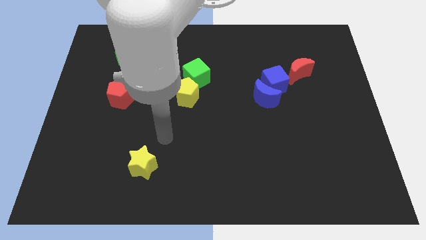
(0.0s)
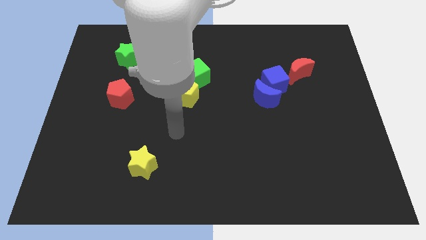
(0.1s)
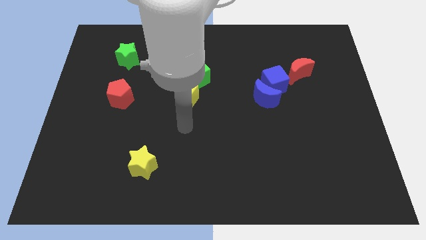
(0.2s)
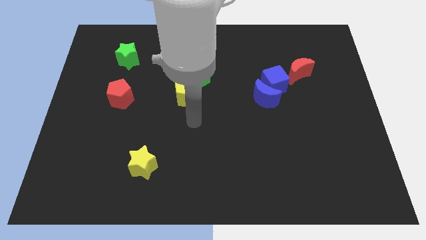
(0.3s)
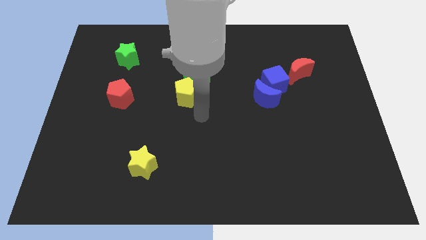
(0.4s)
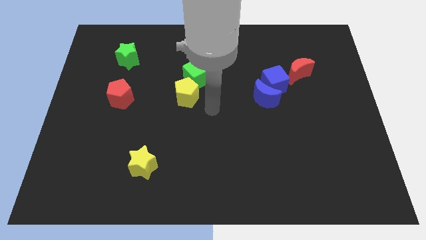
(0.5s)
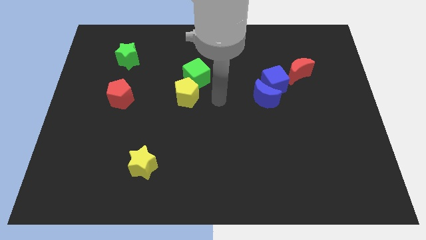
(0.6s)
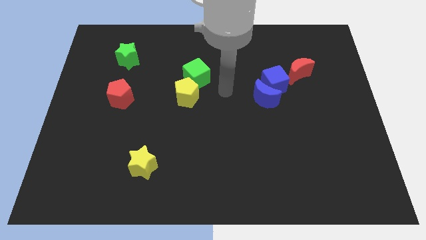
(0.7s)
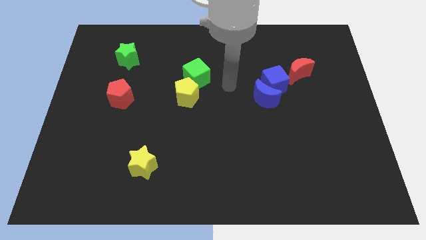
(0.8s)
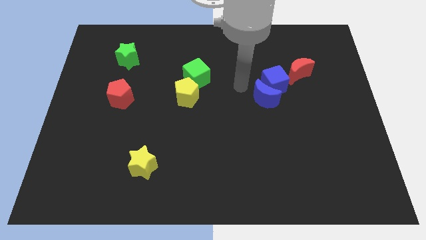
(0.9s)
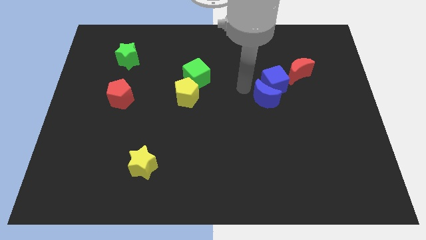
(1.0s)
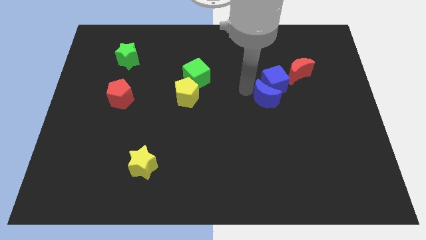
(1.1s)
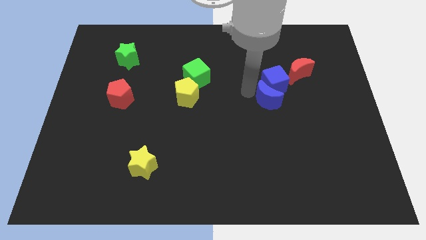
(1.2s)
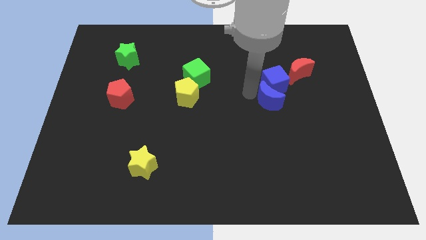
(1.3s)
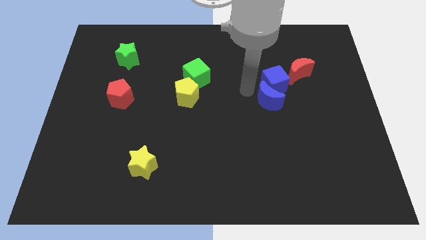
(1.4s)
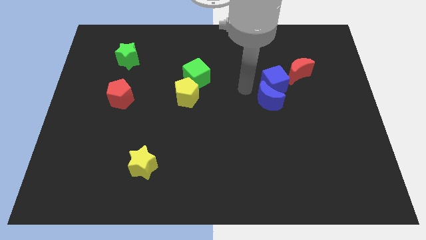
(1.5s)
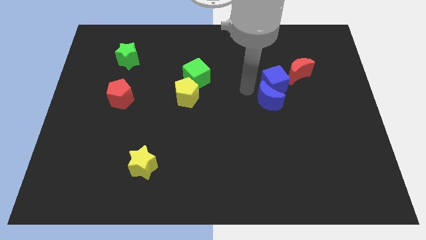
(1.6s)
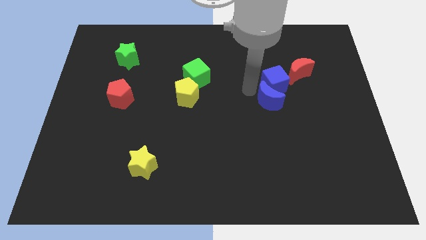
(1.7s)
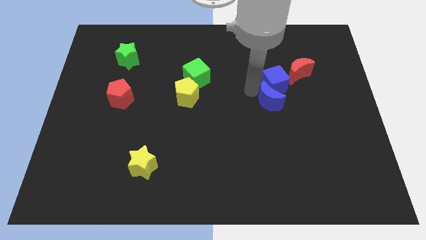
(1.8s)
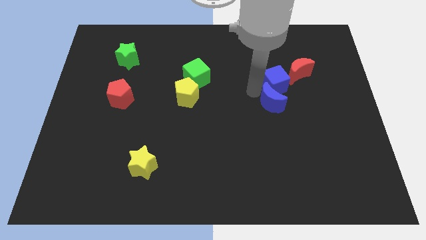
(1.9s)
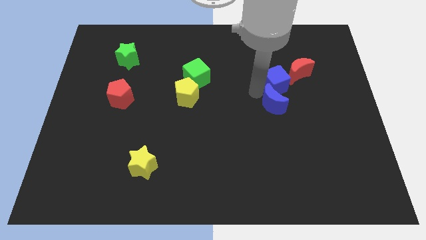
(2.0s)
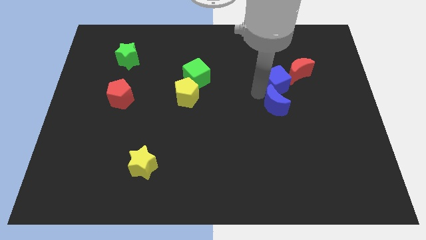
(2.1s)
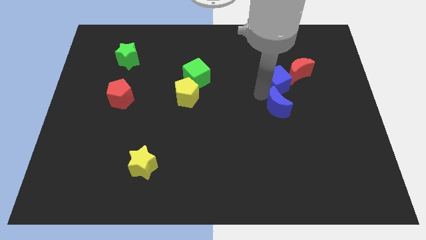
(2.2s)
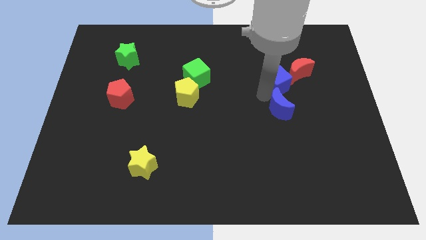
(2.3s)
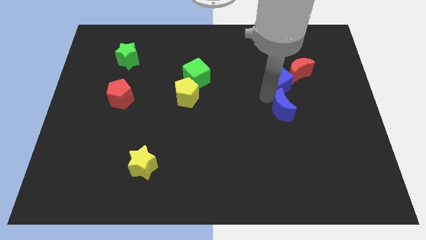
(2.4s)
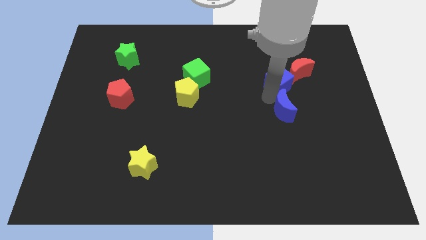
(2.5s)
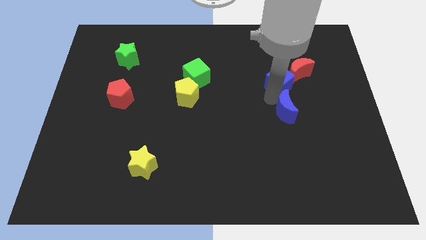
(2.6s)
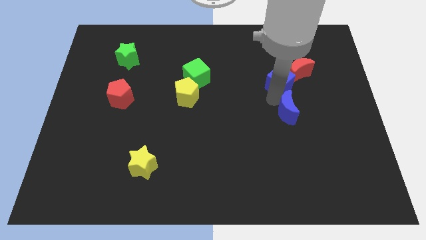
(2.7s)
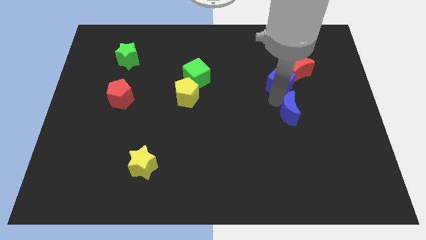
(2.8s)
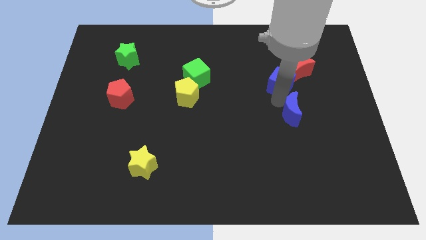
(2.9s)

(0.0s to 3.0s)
slightly move the blue moon downwards and then to the right

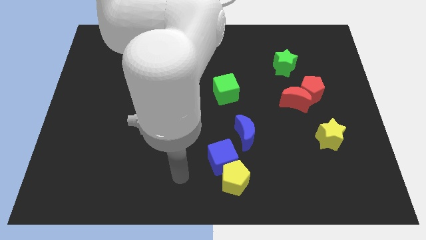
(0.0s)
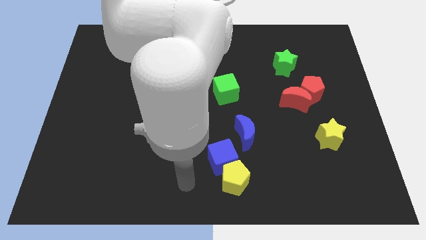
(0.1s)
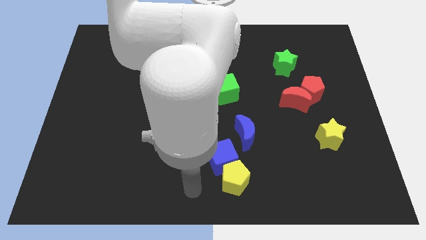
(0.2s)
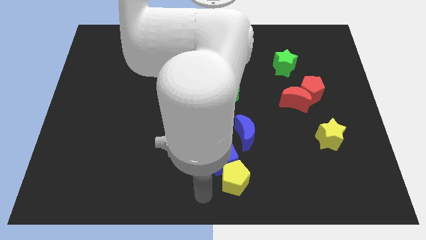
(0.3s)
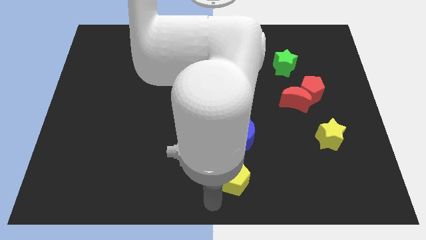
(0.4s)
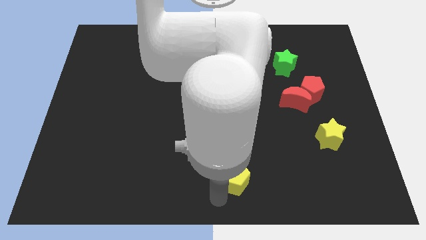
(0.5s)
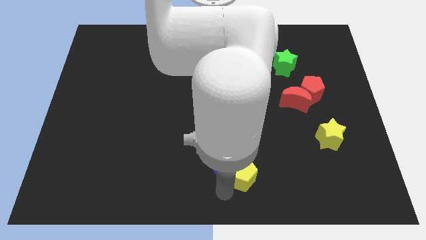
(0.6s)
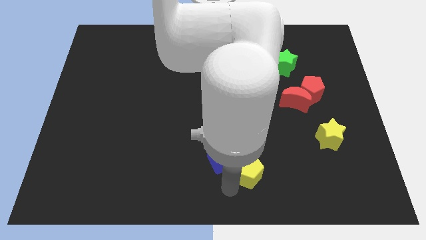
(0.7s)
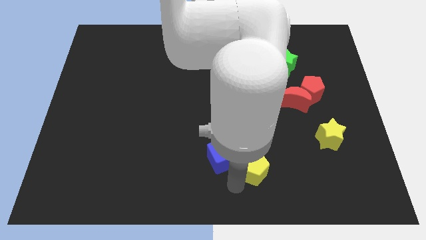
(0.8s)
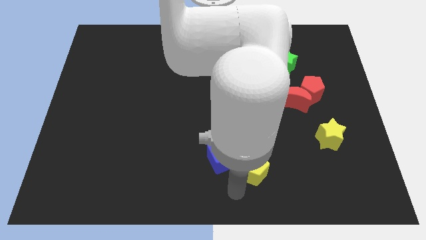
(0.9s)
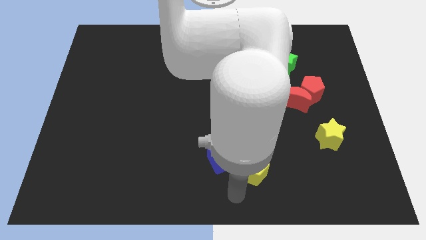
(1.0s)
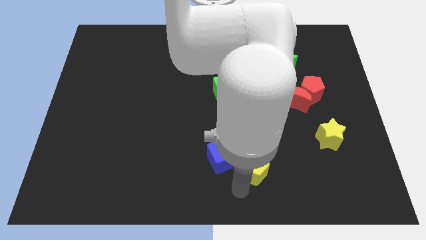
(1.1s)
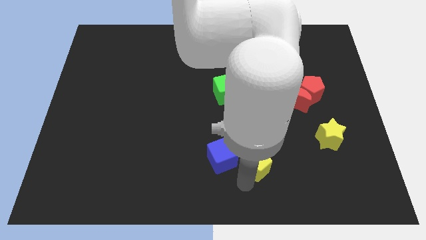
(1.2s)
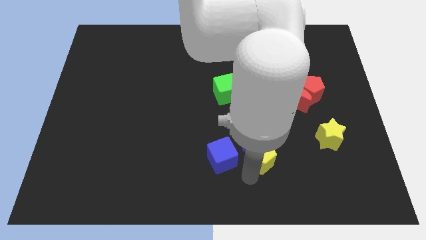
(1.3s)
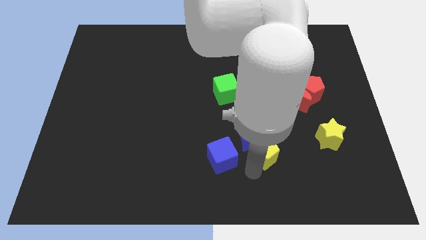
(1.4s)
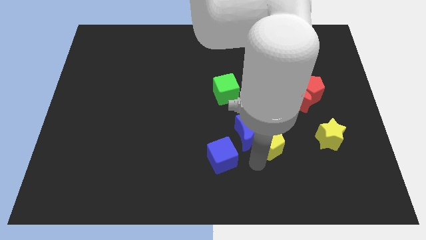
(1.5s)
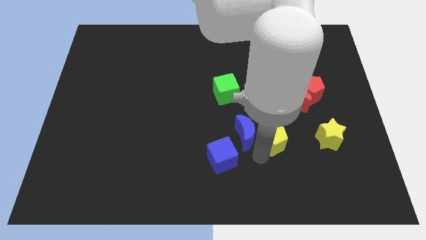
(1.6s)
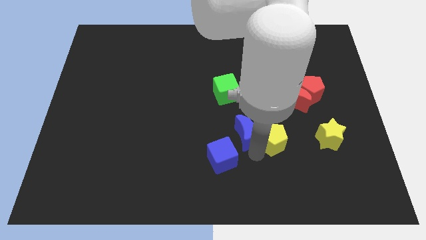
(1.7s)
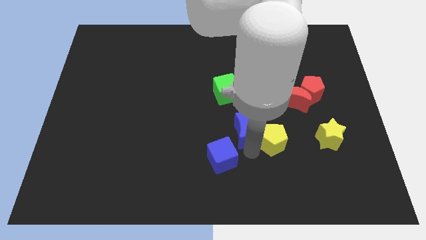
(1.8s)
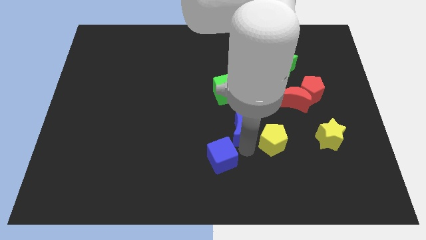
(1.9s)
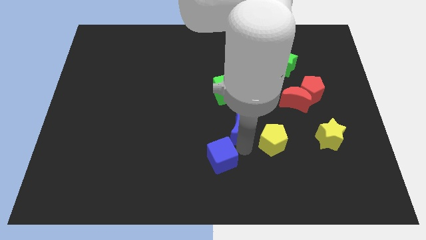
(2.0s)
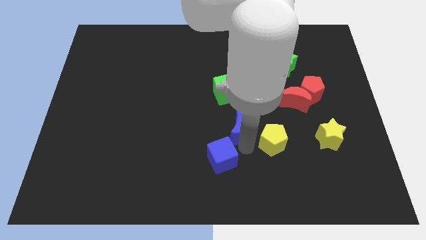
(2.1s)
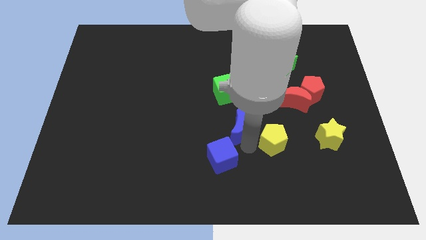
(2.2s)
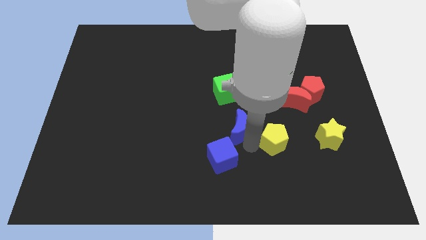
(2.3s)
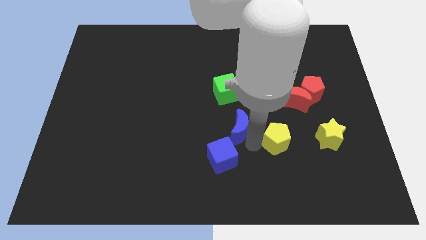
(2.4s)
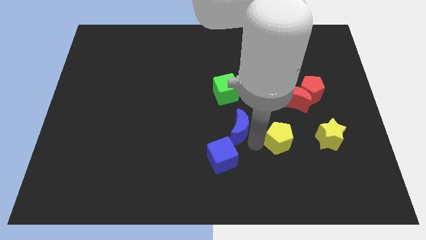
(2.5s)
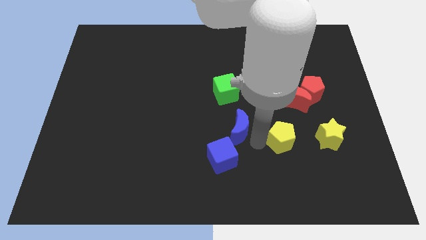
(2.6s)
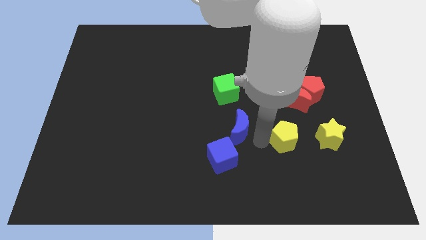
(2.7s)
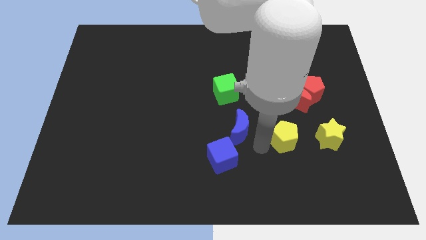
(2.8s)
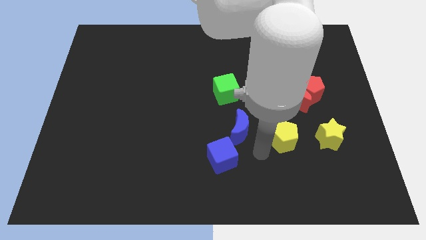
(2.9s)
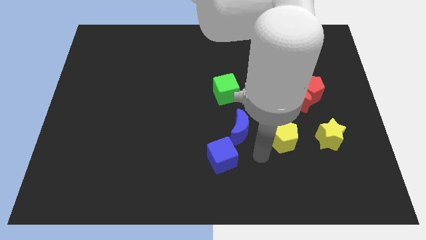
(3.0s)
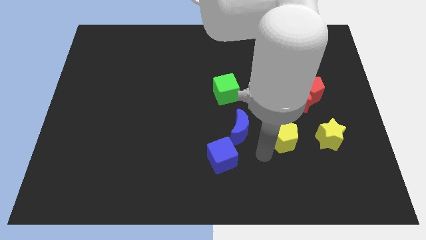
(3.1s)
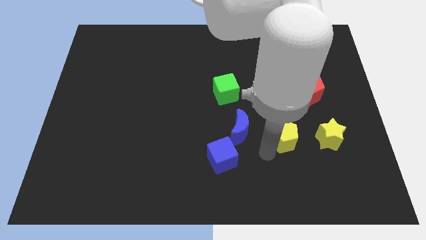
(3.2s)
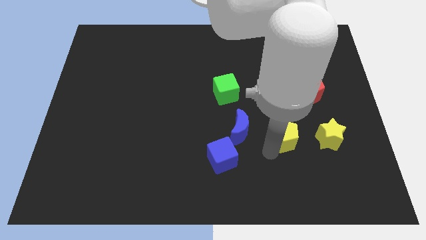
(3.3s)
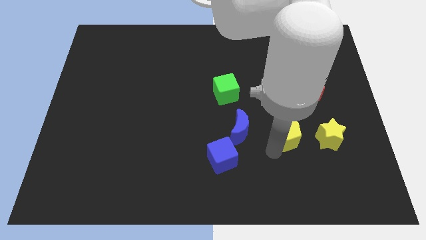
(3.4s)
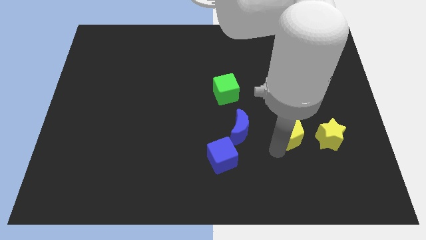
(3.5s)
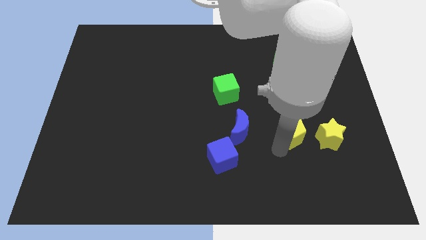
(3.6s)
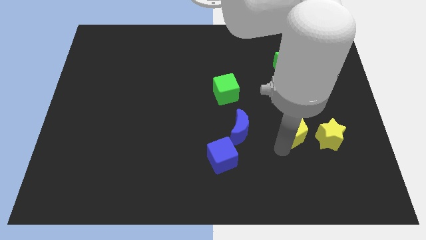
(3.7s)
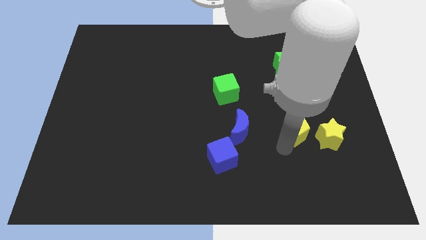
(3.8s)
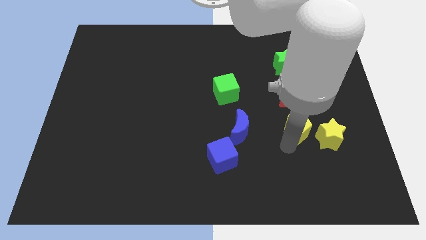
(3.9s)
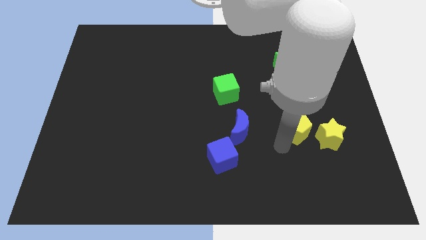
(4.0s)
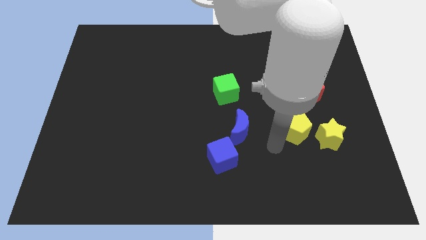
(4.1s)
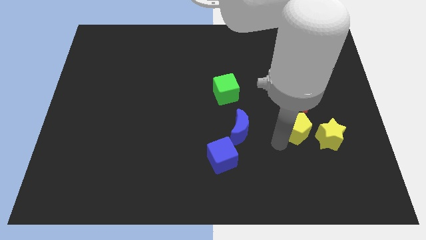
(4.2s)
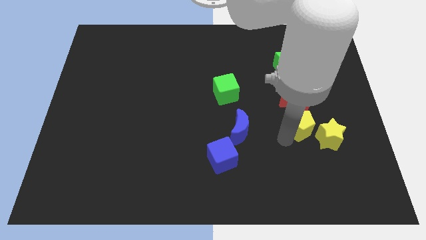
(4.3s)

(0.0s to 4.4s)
slide the yellow pentagon upwards and right

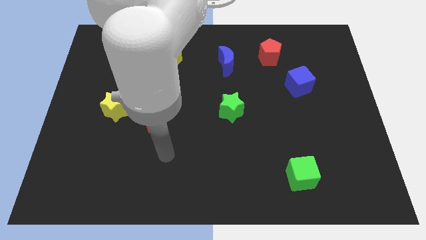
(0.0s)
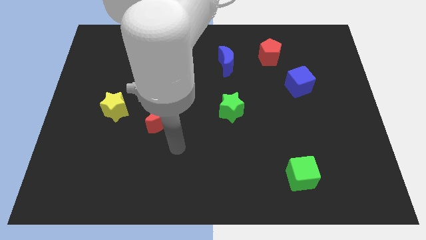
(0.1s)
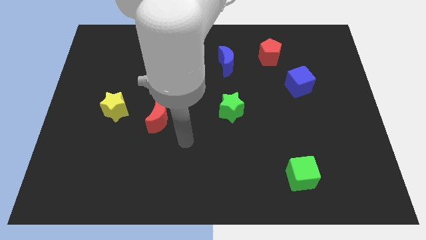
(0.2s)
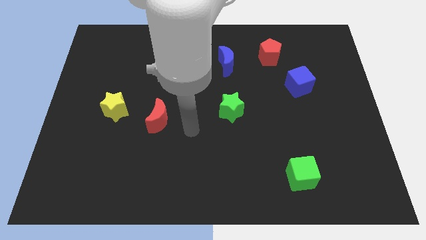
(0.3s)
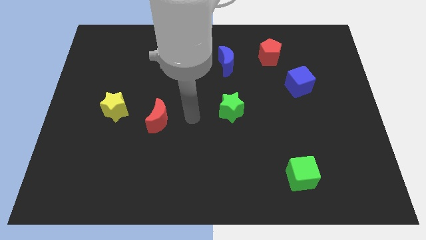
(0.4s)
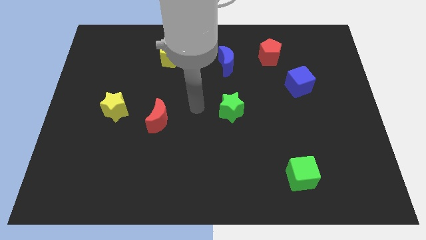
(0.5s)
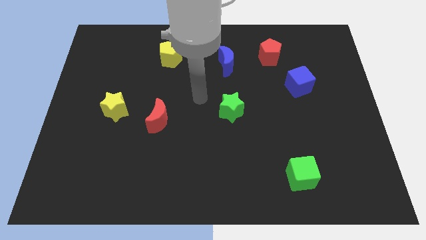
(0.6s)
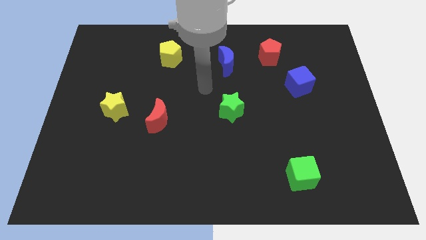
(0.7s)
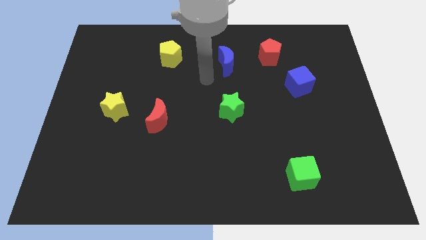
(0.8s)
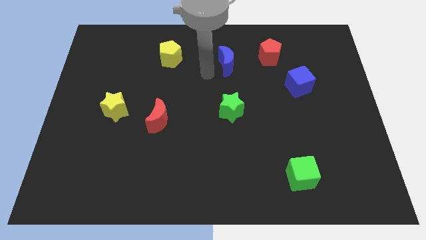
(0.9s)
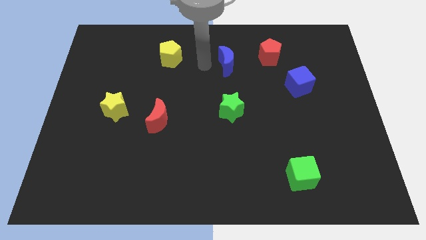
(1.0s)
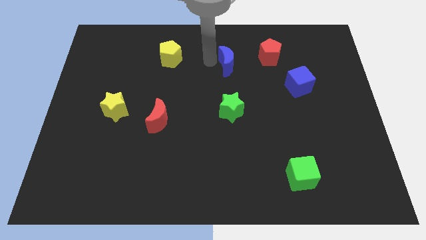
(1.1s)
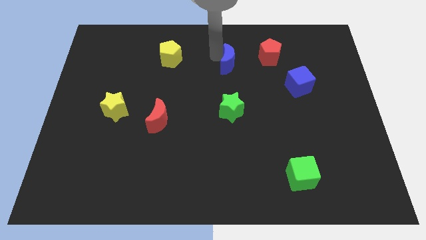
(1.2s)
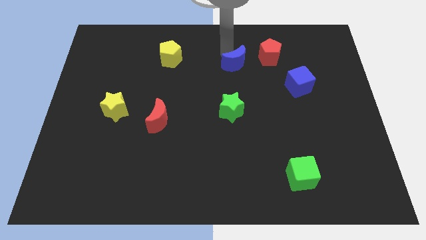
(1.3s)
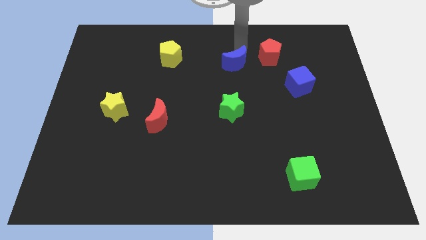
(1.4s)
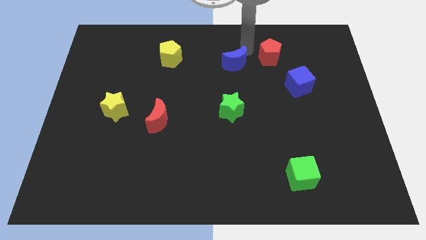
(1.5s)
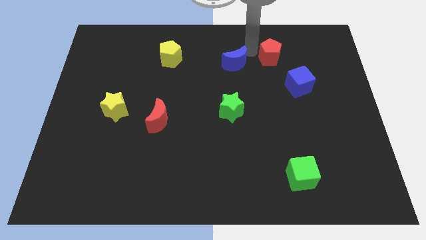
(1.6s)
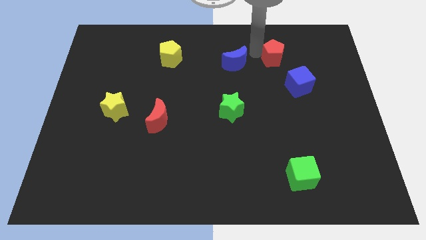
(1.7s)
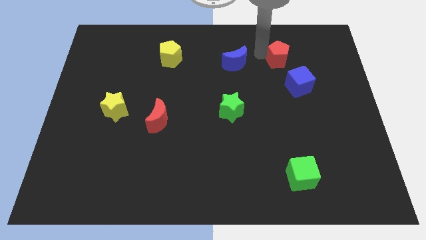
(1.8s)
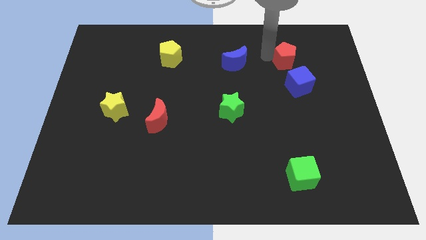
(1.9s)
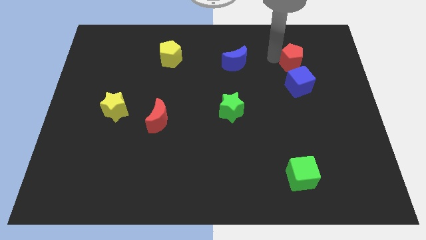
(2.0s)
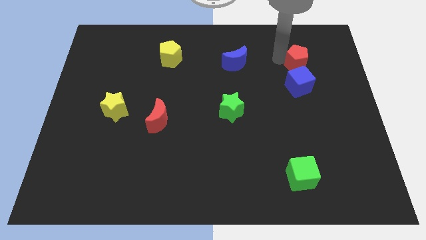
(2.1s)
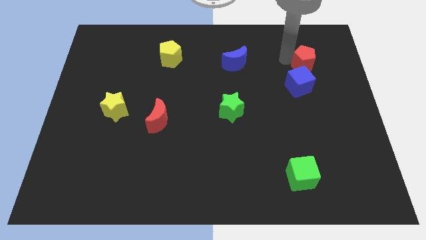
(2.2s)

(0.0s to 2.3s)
slightly move the red pentagon downwards and right diagonally
